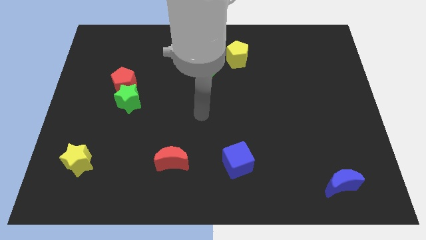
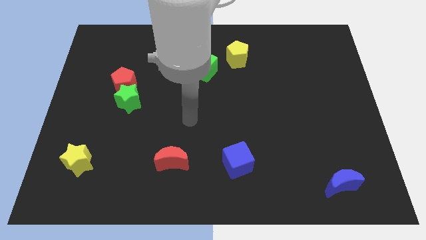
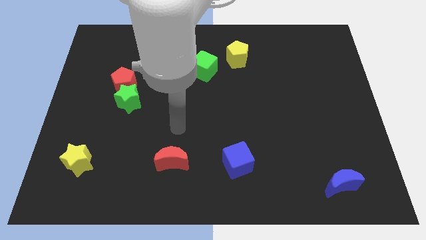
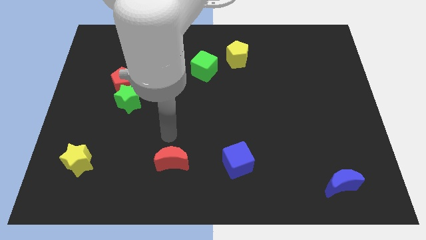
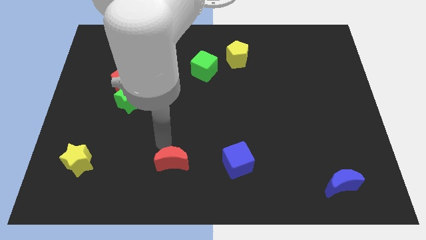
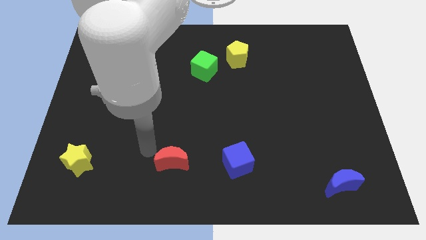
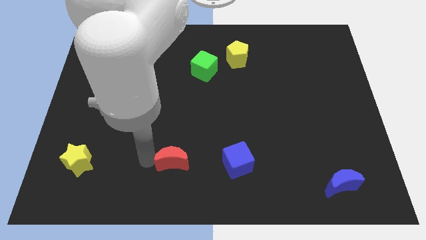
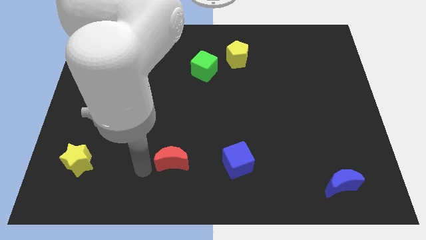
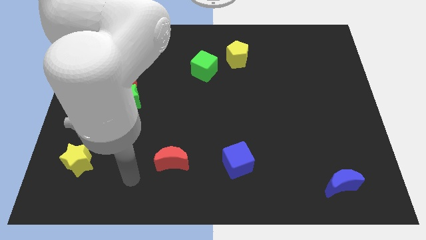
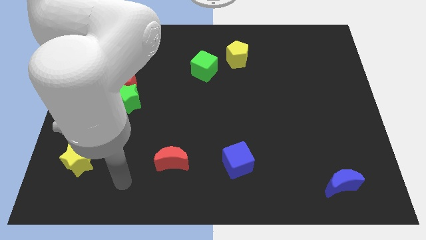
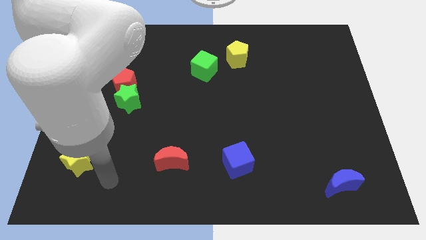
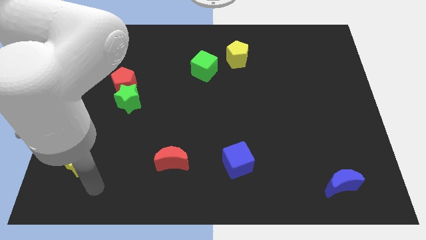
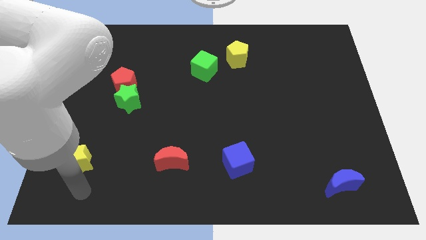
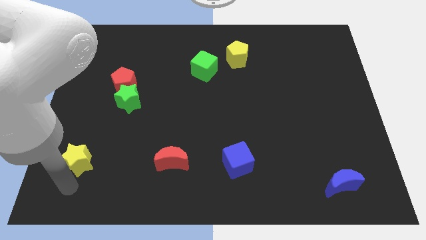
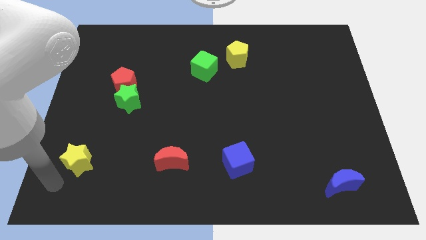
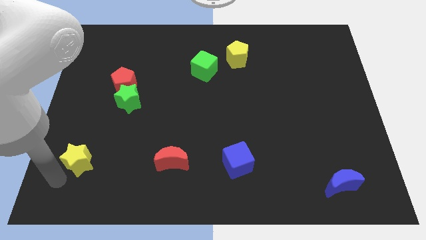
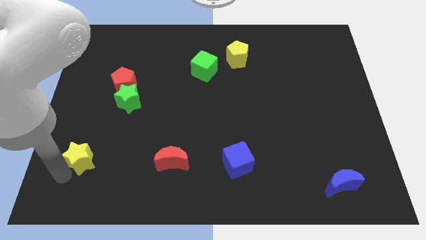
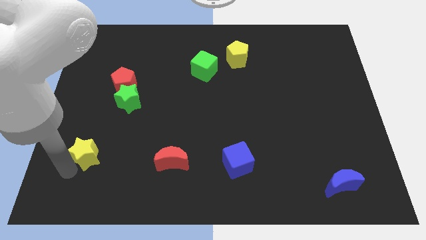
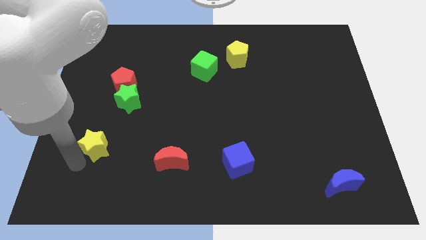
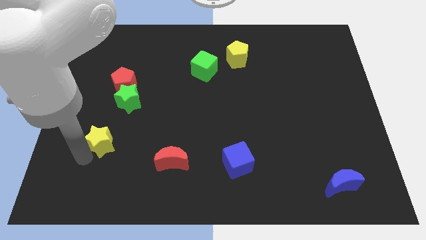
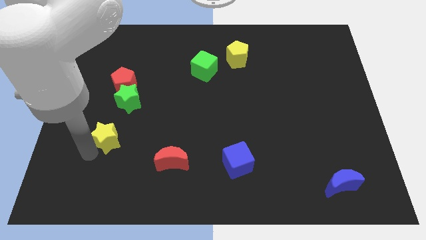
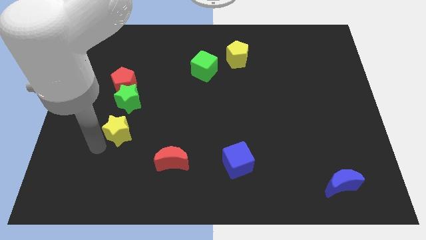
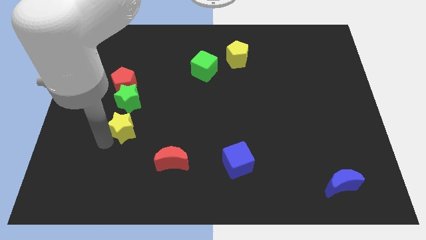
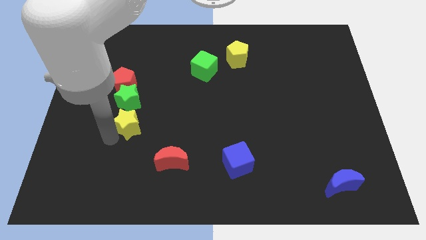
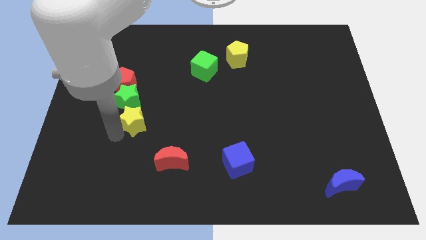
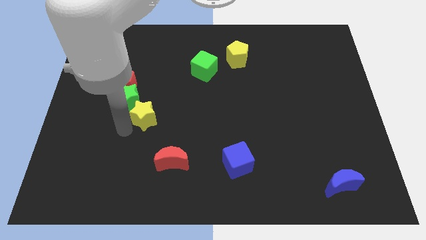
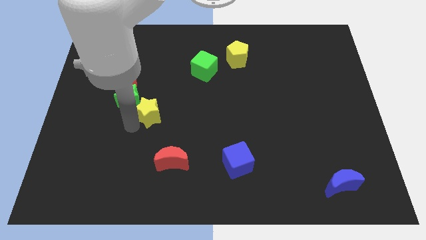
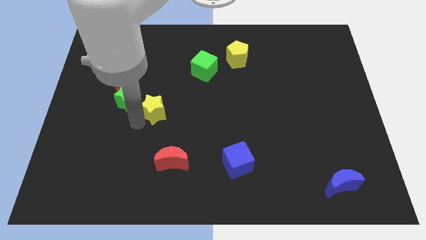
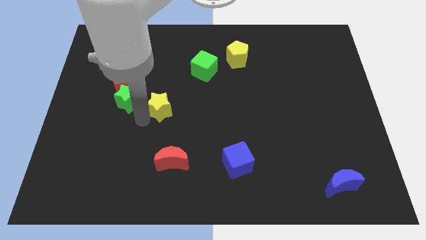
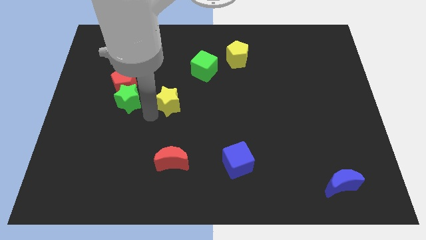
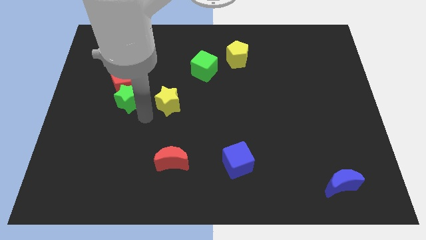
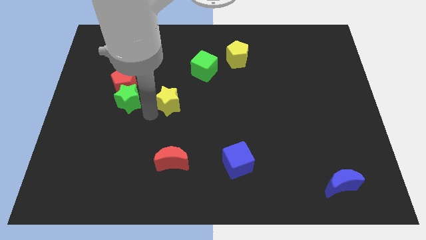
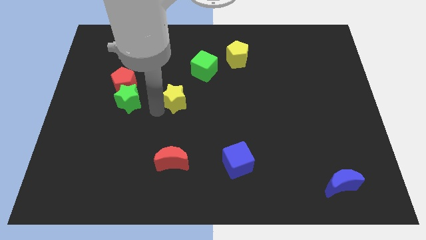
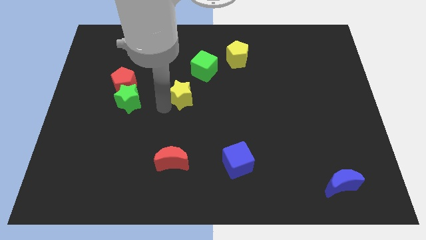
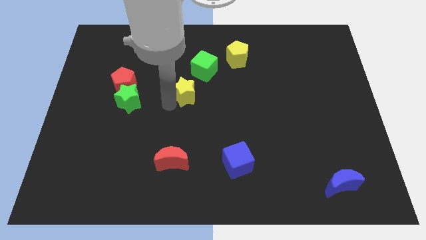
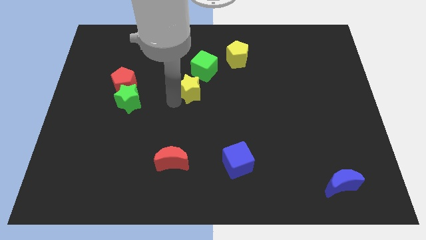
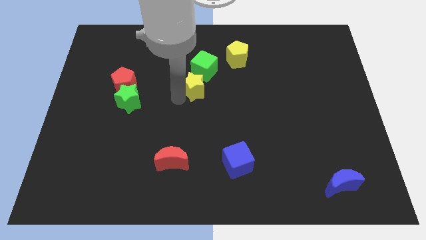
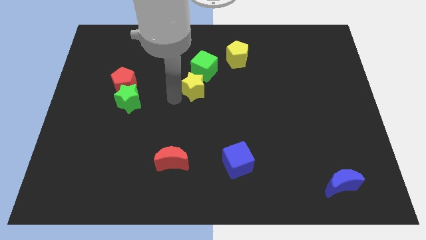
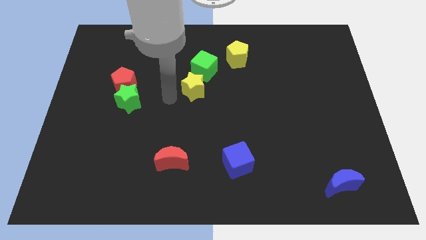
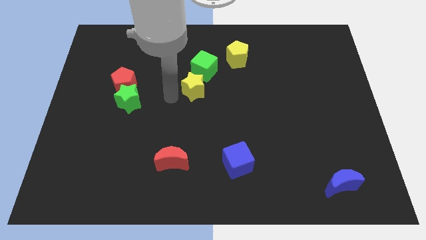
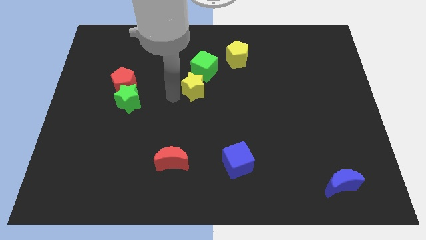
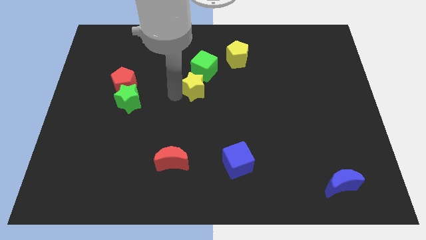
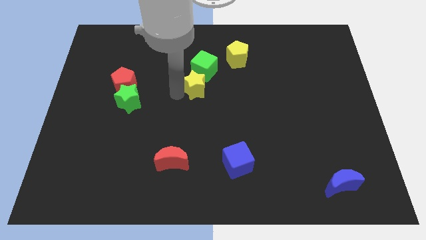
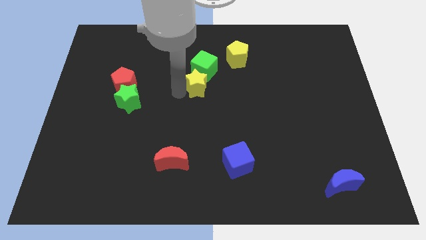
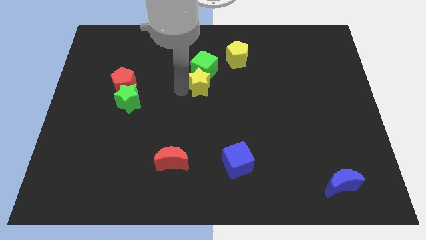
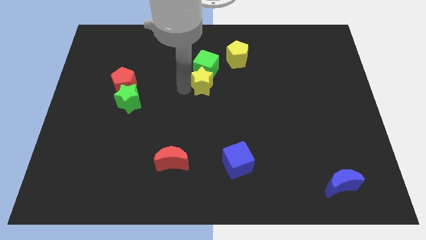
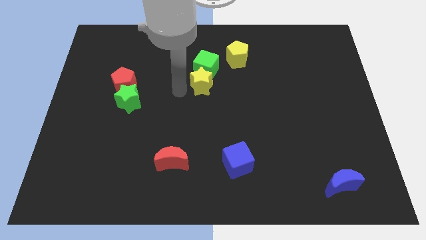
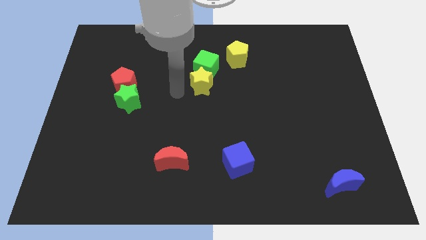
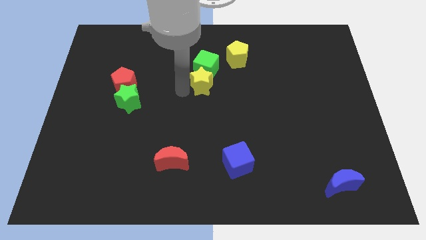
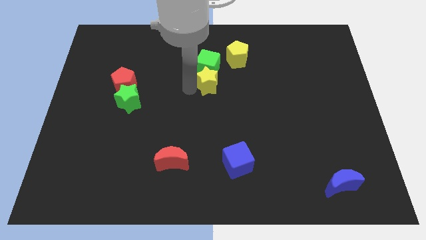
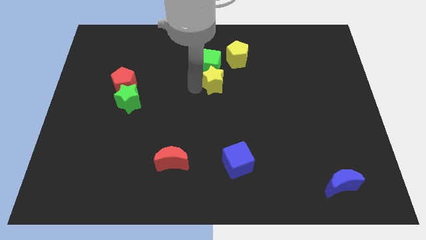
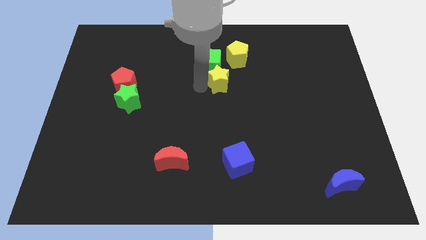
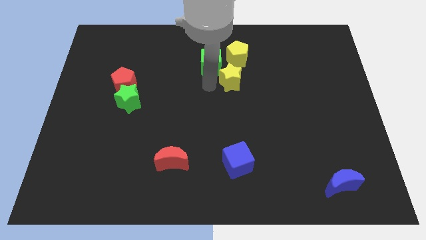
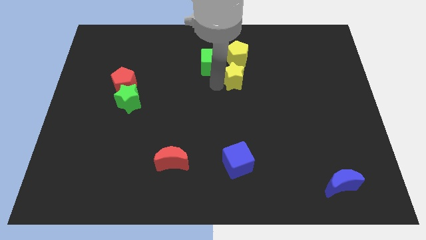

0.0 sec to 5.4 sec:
put the yellow star to the right of the green cube

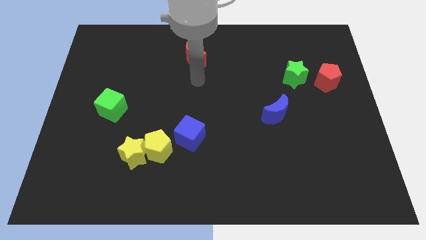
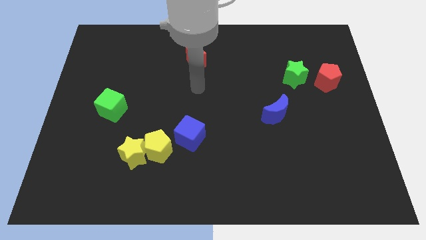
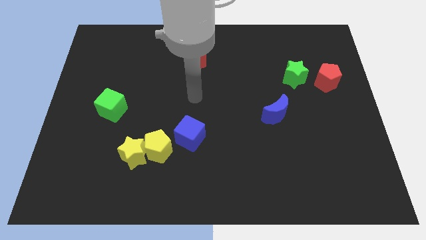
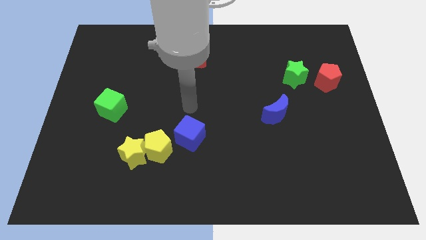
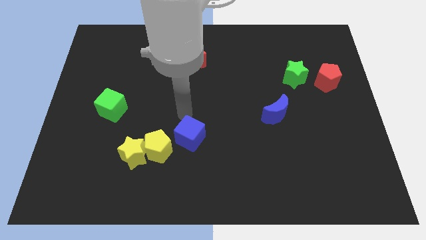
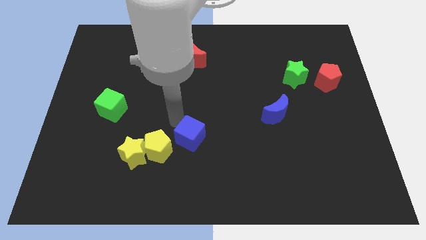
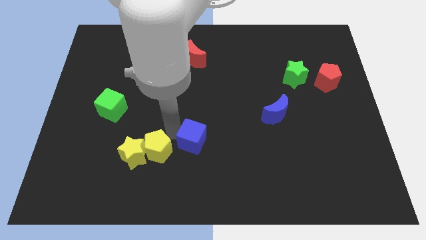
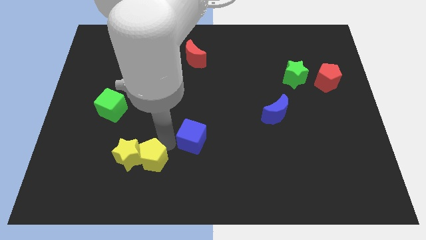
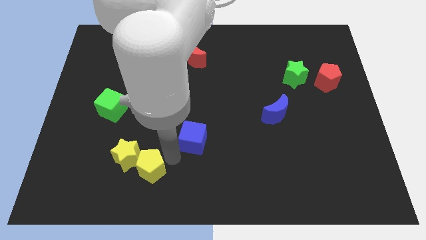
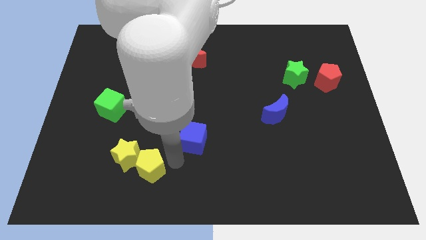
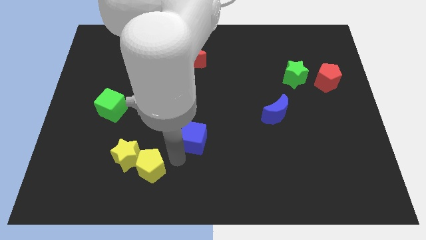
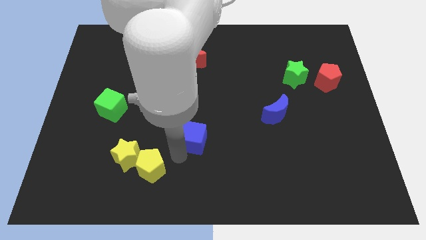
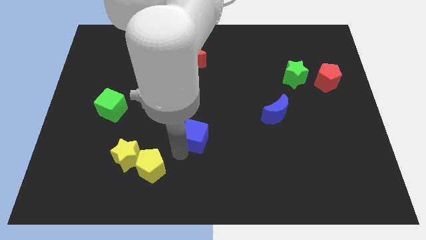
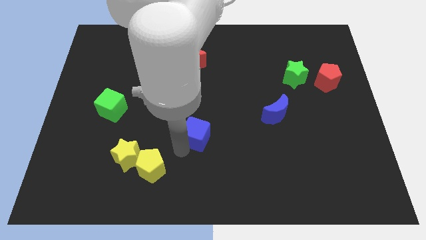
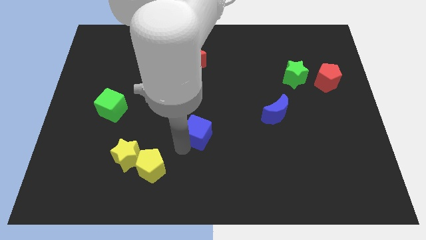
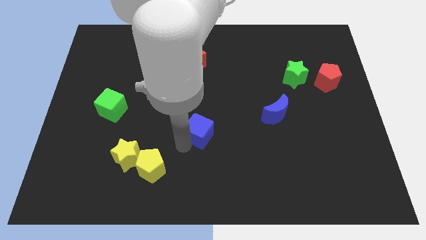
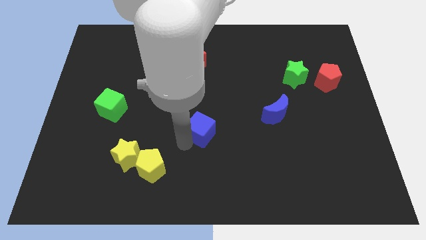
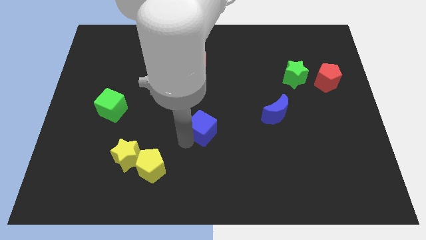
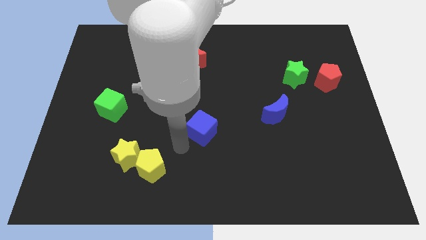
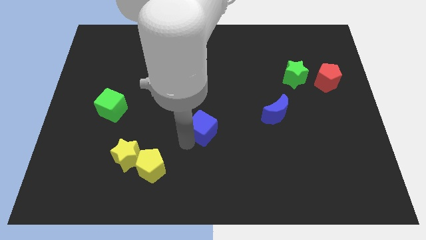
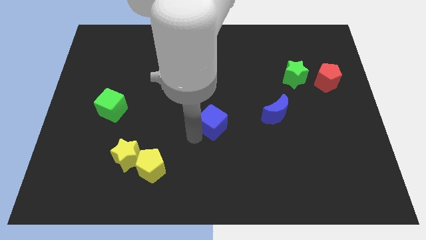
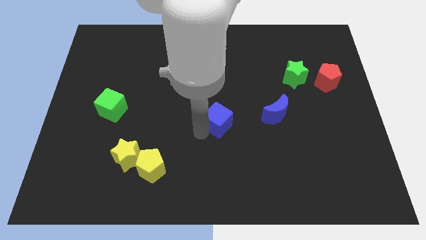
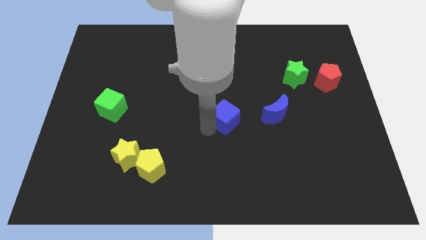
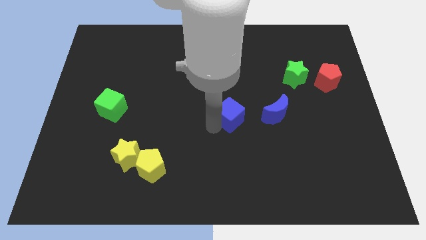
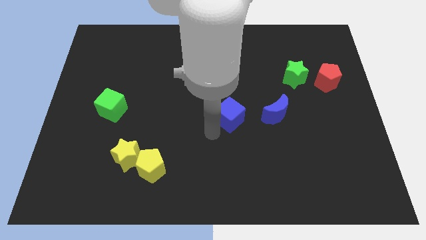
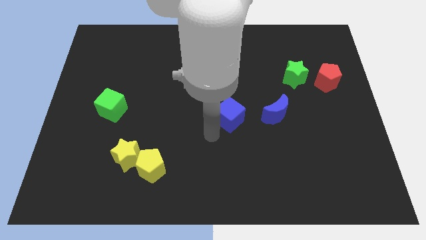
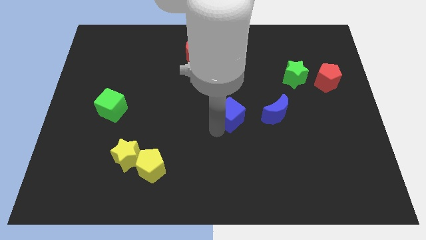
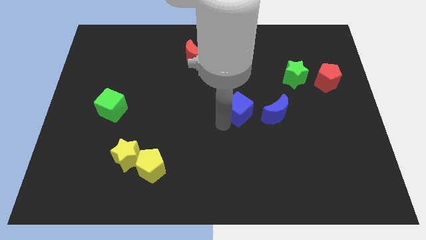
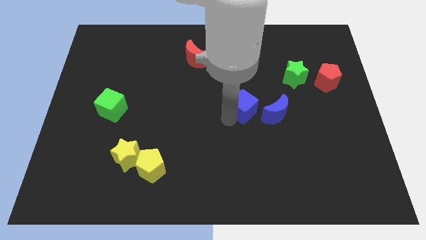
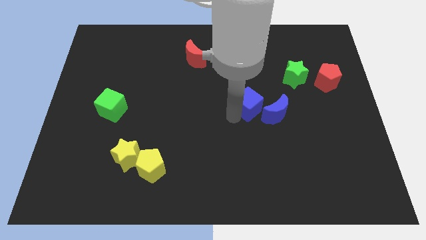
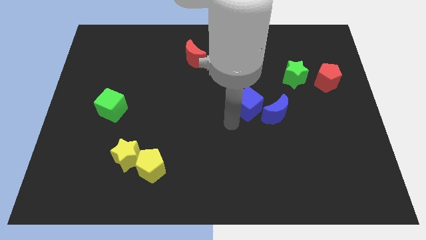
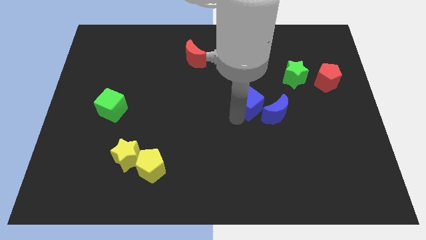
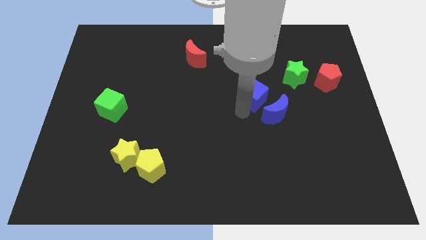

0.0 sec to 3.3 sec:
slide the blue cube to the top of the blue moon
